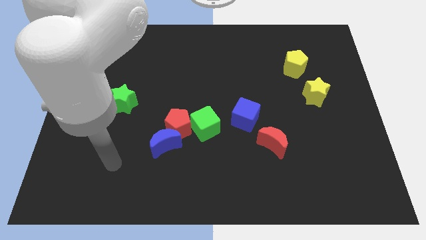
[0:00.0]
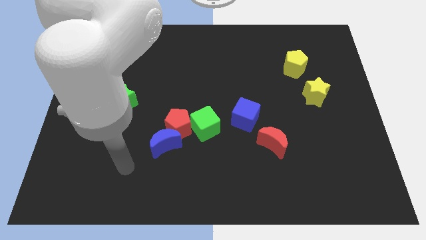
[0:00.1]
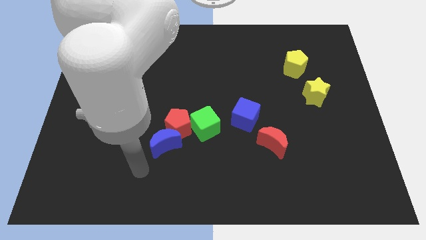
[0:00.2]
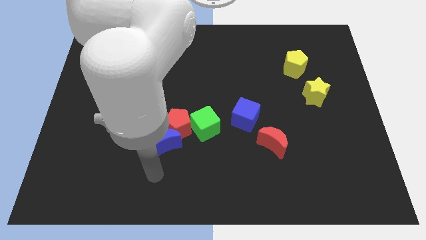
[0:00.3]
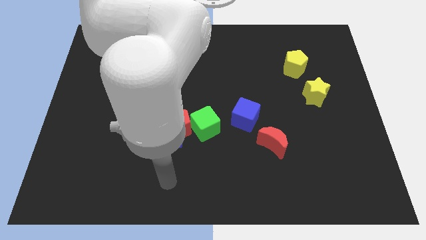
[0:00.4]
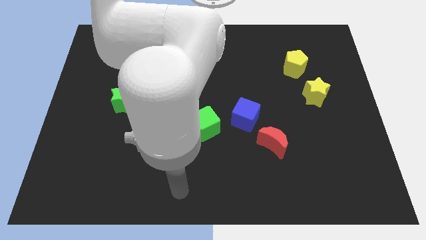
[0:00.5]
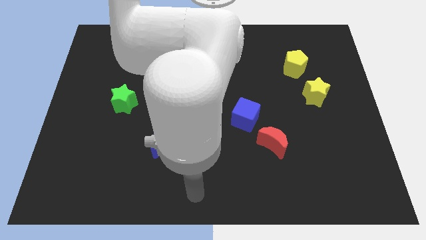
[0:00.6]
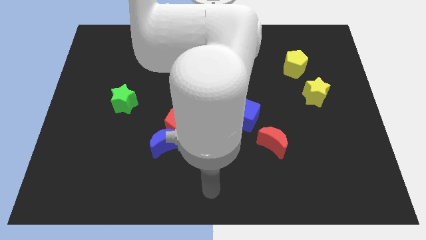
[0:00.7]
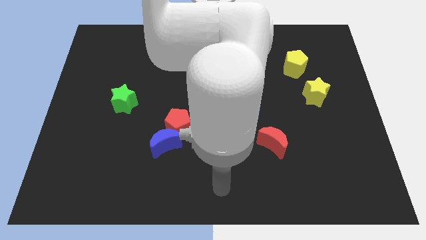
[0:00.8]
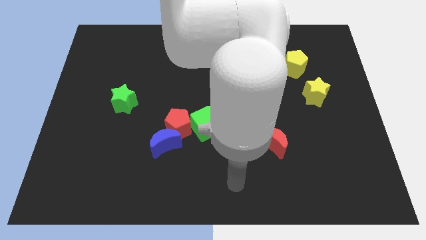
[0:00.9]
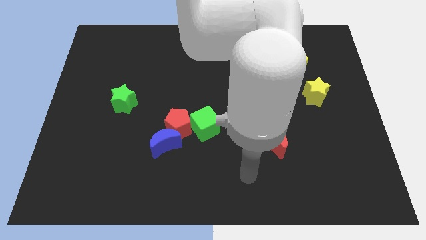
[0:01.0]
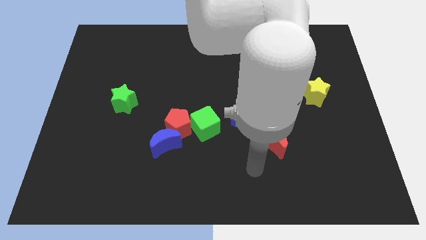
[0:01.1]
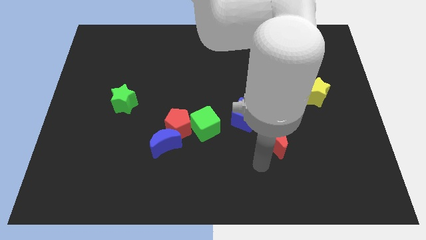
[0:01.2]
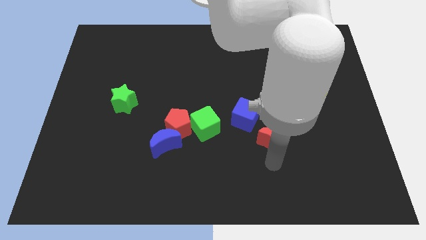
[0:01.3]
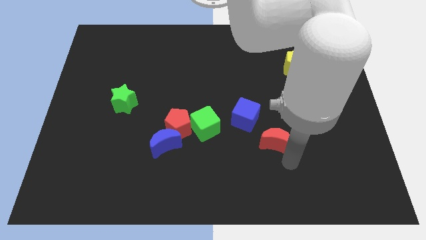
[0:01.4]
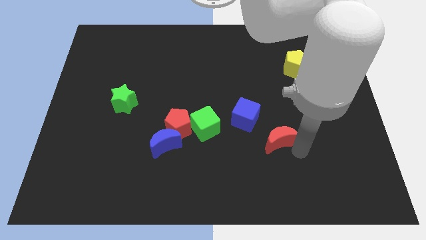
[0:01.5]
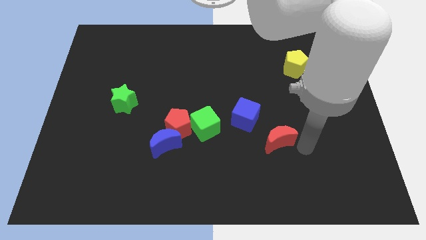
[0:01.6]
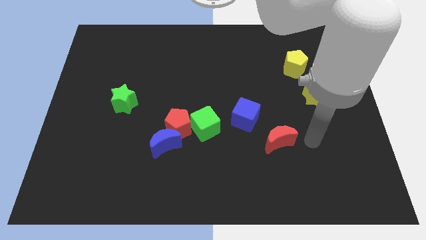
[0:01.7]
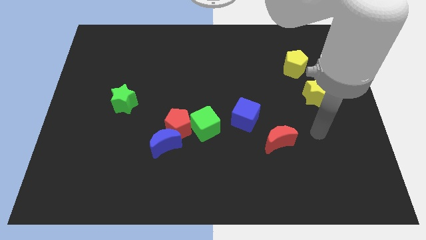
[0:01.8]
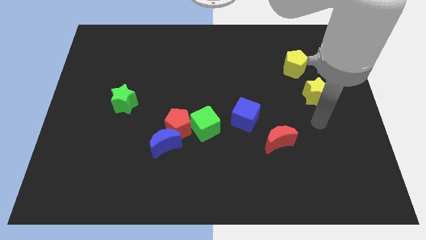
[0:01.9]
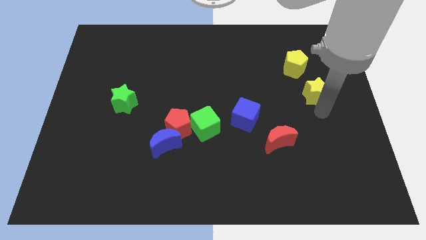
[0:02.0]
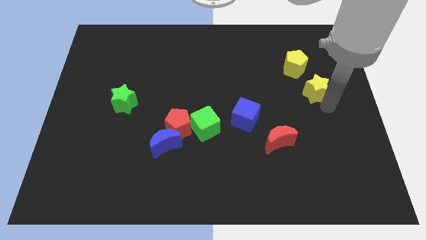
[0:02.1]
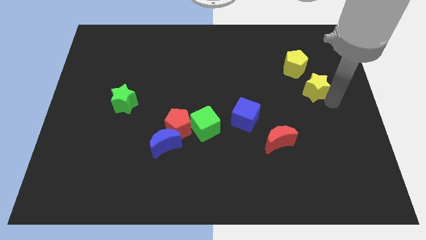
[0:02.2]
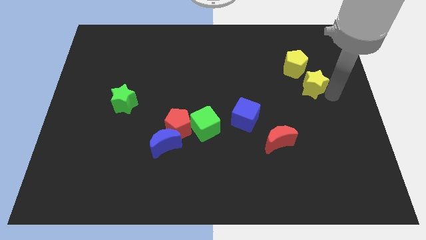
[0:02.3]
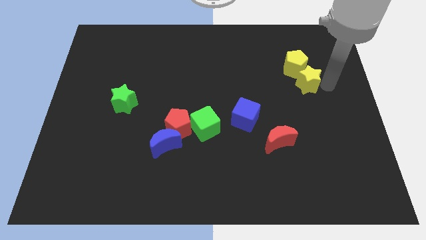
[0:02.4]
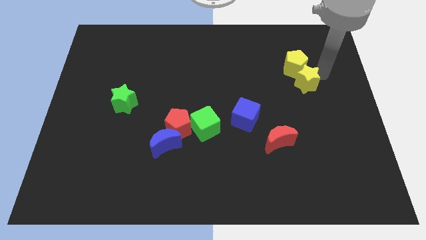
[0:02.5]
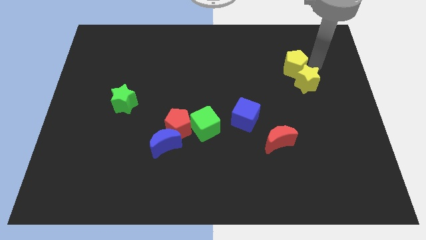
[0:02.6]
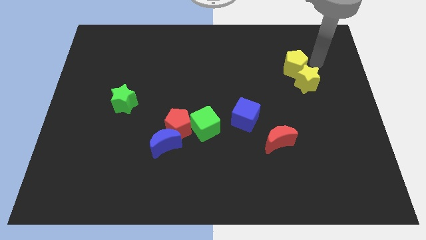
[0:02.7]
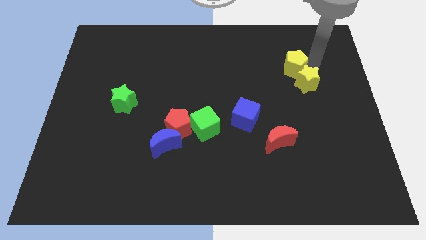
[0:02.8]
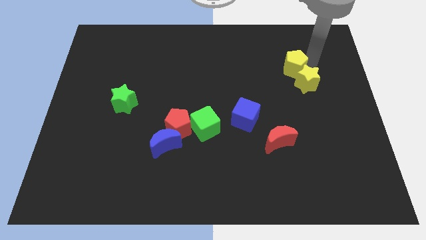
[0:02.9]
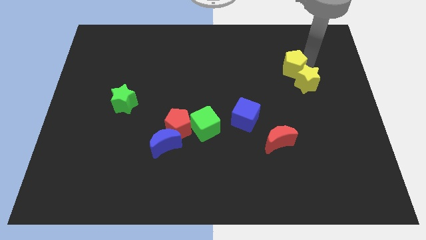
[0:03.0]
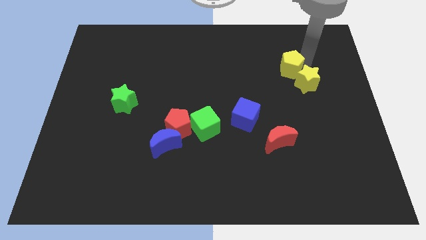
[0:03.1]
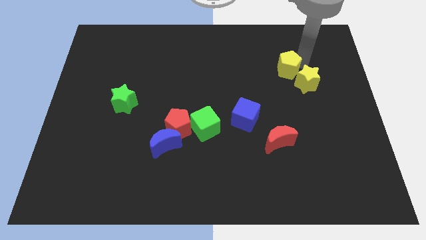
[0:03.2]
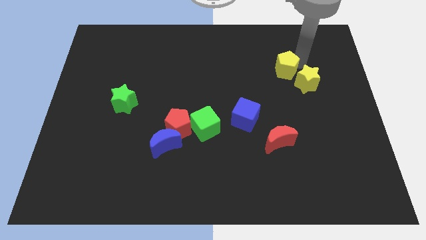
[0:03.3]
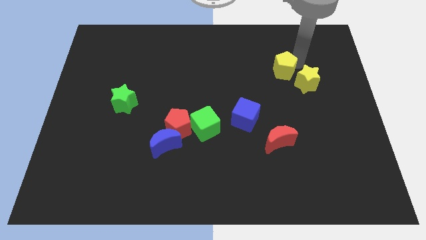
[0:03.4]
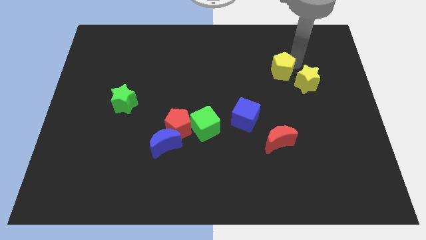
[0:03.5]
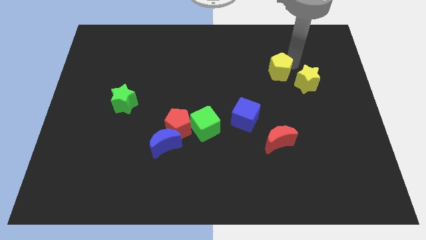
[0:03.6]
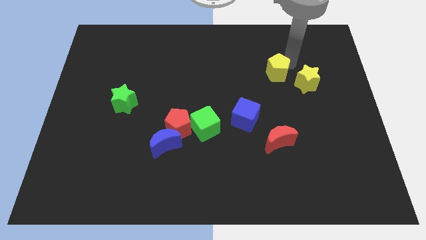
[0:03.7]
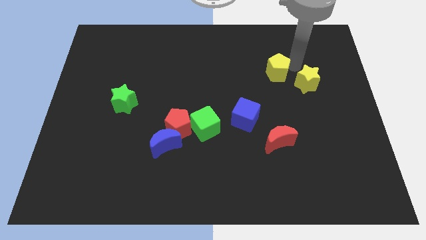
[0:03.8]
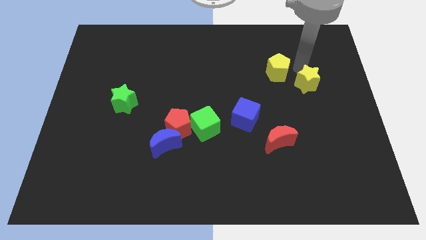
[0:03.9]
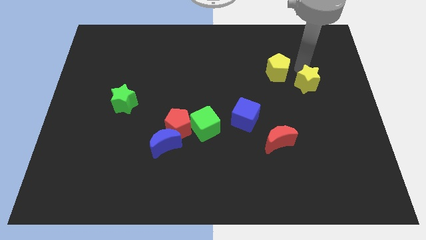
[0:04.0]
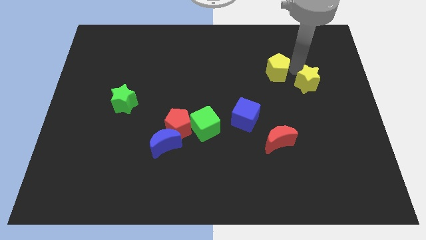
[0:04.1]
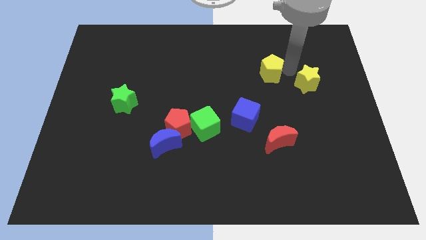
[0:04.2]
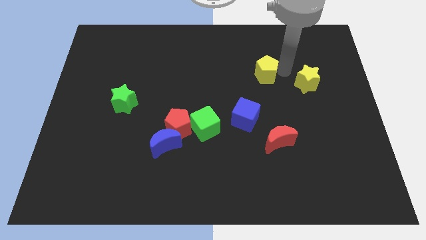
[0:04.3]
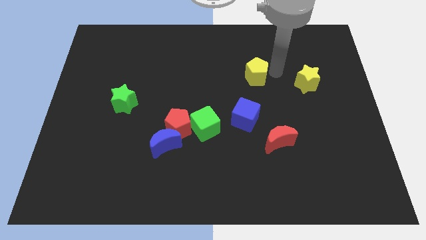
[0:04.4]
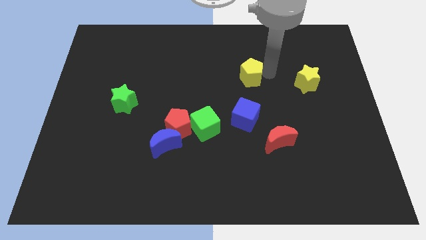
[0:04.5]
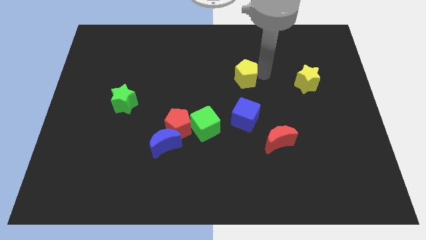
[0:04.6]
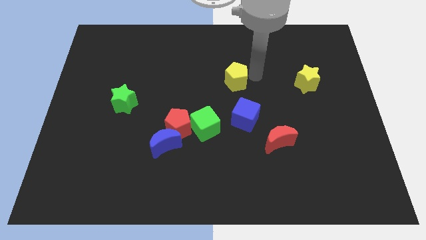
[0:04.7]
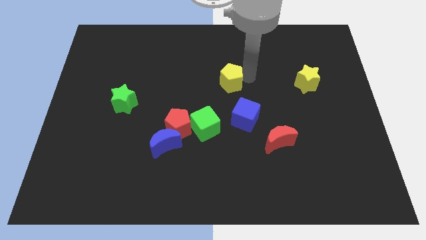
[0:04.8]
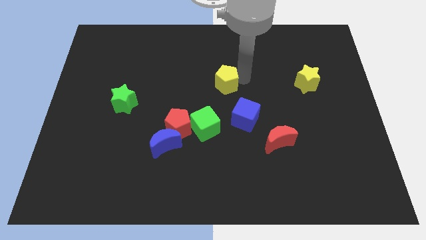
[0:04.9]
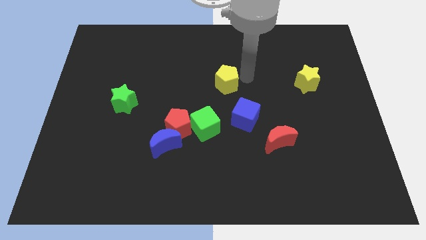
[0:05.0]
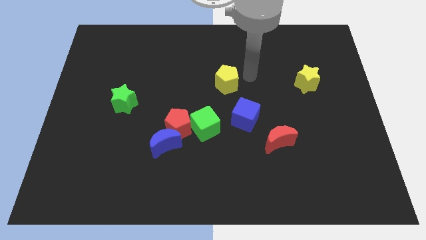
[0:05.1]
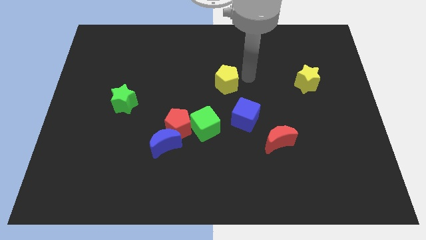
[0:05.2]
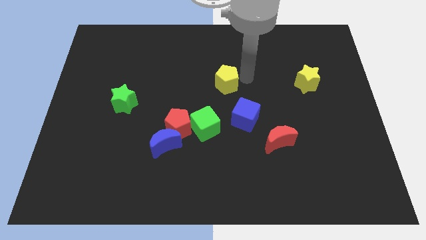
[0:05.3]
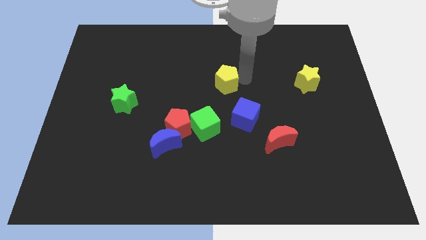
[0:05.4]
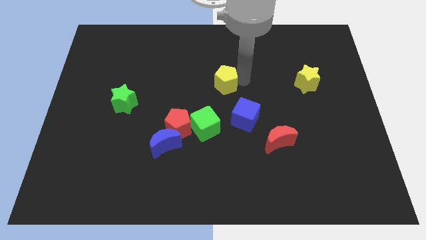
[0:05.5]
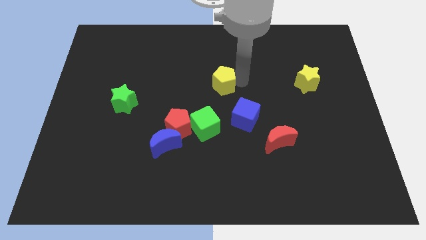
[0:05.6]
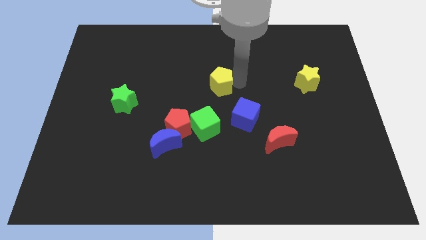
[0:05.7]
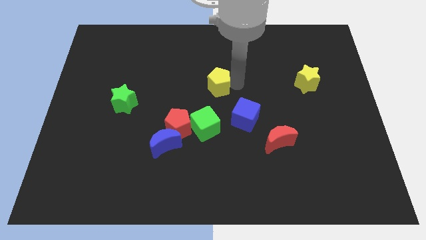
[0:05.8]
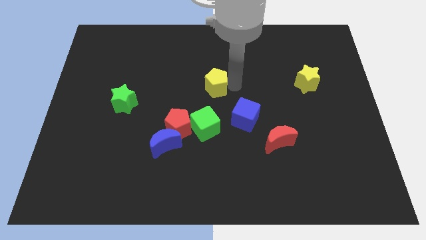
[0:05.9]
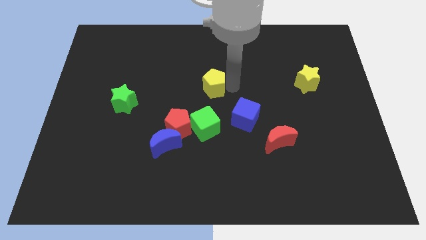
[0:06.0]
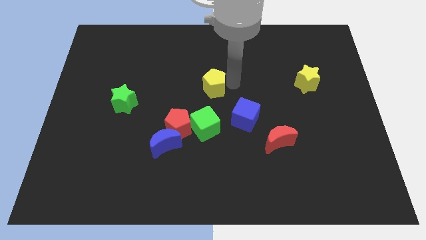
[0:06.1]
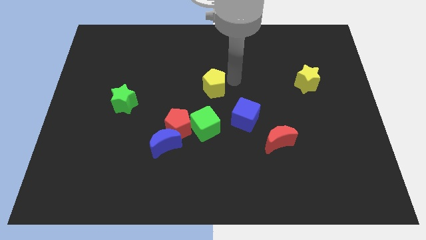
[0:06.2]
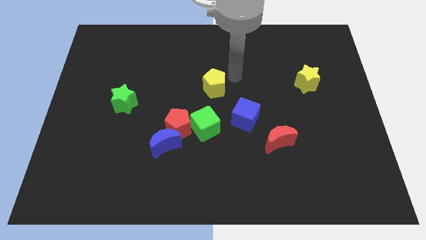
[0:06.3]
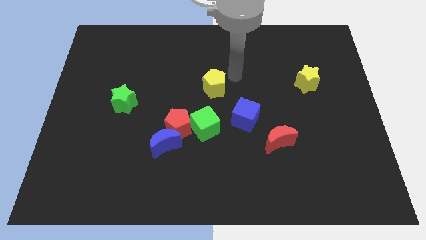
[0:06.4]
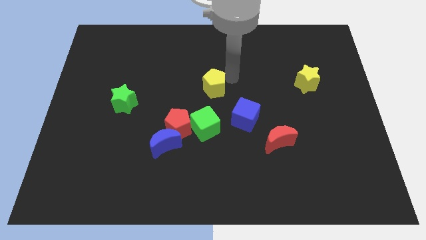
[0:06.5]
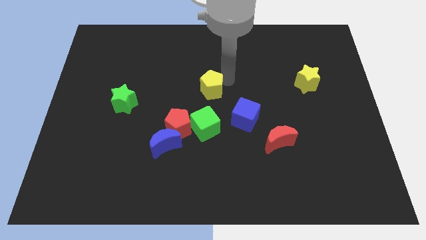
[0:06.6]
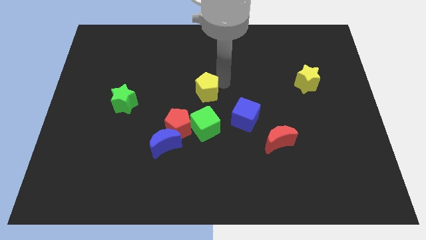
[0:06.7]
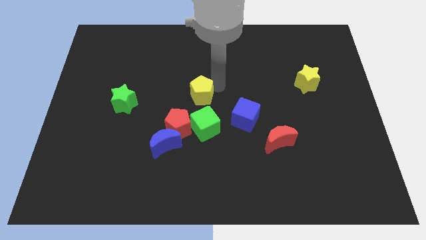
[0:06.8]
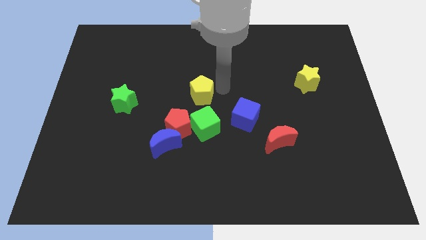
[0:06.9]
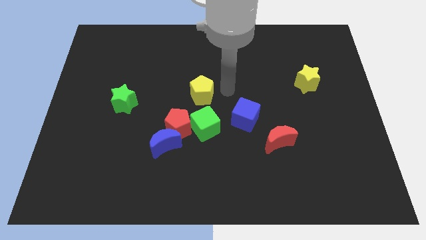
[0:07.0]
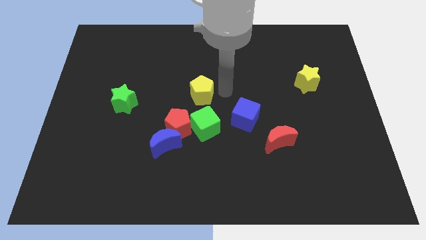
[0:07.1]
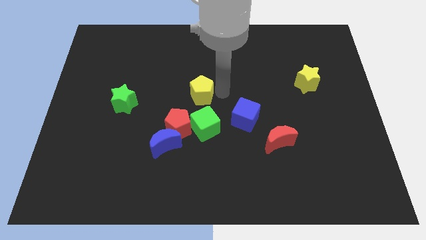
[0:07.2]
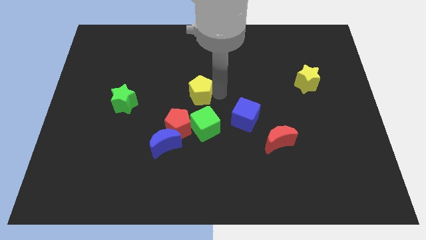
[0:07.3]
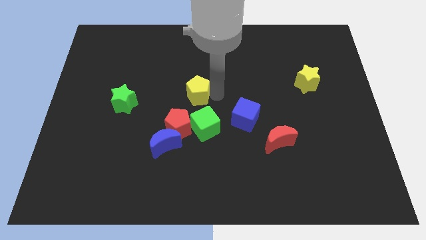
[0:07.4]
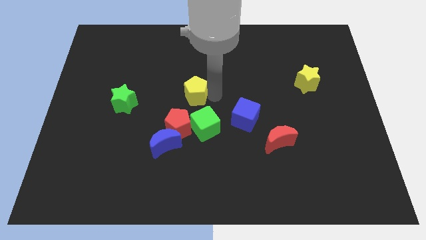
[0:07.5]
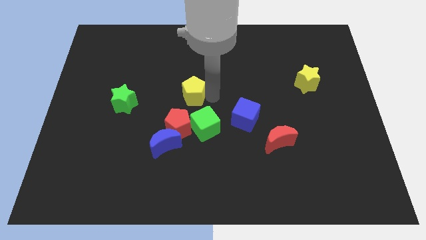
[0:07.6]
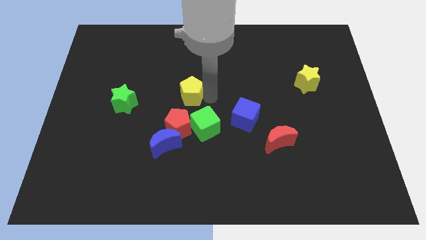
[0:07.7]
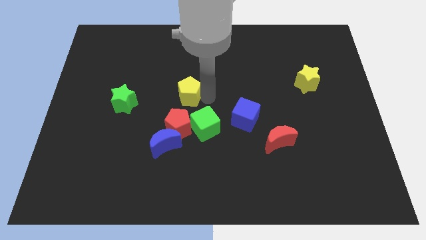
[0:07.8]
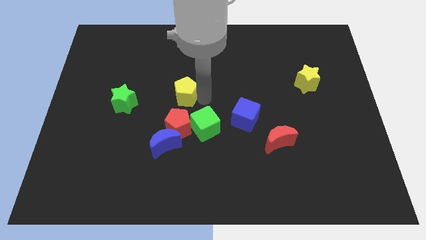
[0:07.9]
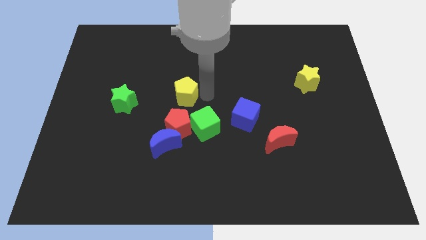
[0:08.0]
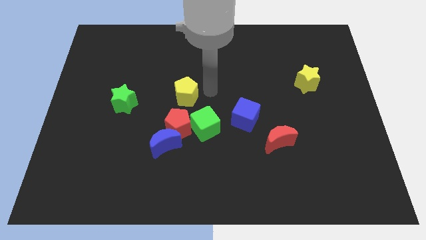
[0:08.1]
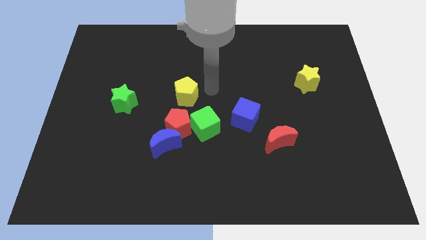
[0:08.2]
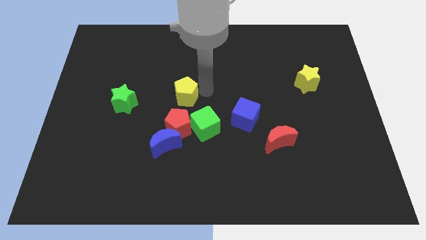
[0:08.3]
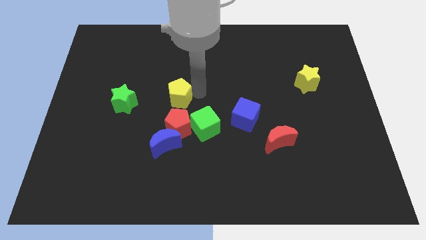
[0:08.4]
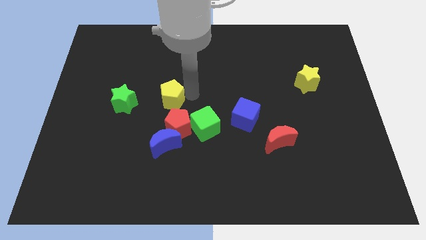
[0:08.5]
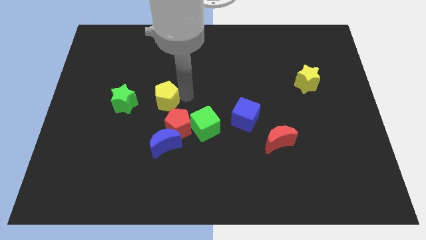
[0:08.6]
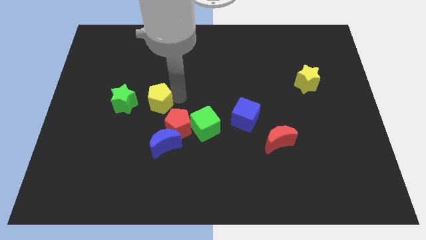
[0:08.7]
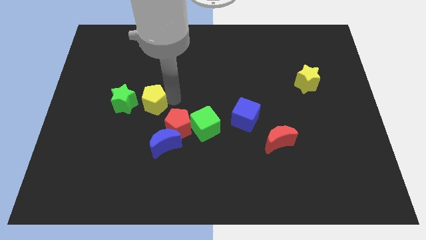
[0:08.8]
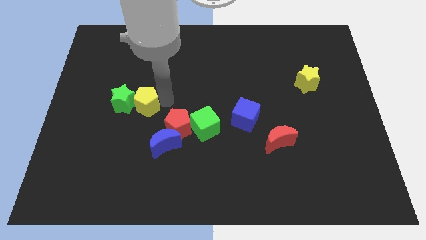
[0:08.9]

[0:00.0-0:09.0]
put the yellow pentagon next to the green star
